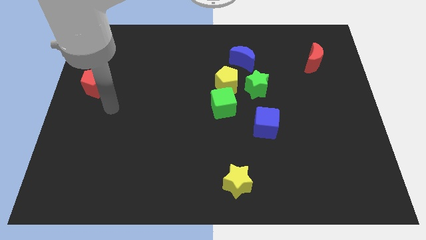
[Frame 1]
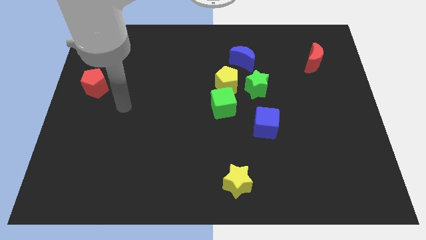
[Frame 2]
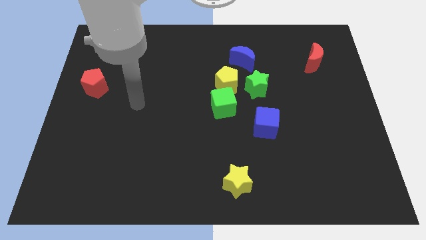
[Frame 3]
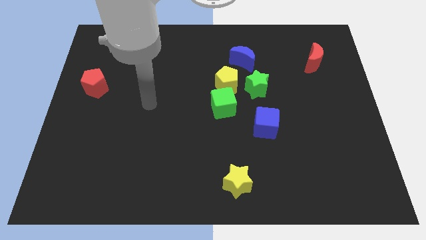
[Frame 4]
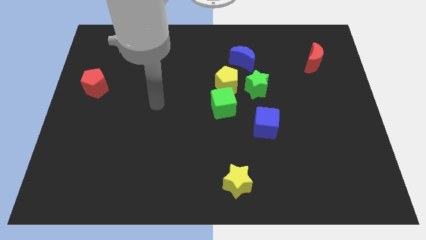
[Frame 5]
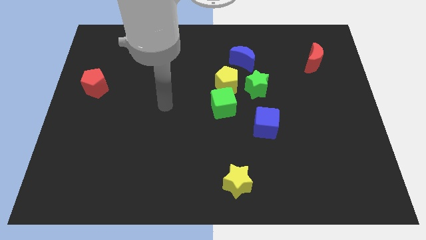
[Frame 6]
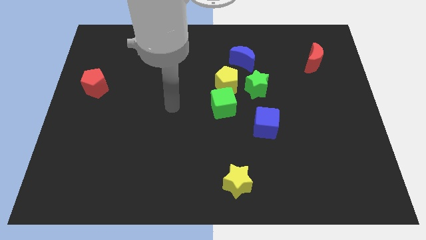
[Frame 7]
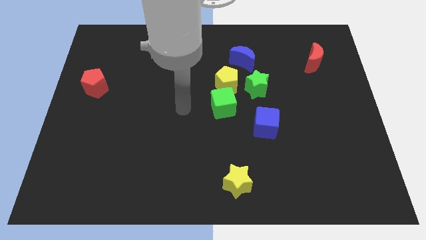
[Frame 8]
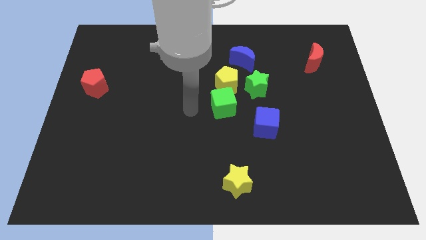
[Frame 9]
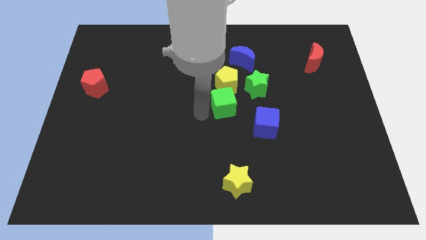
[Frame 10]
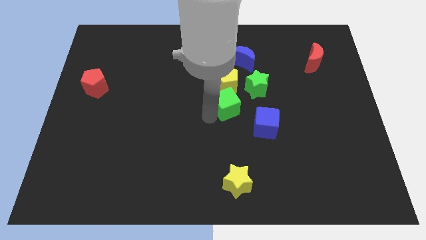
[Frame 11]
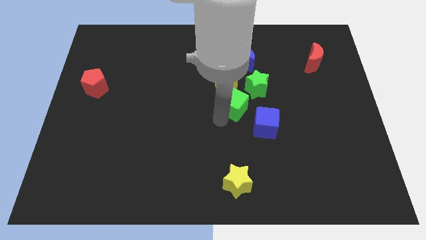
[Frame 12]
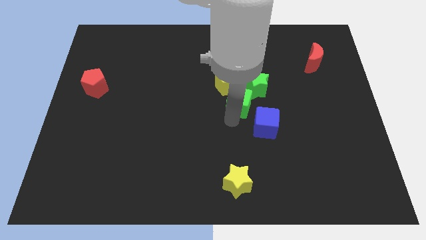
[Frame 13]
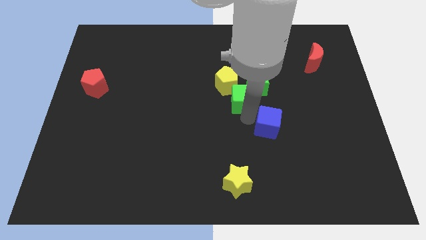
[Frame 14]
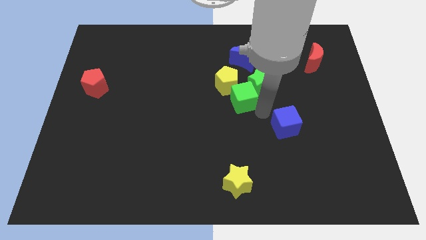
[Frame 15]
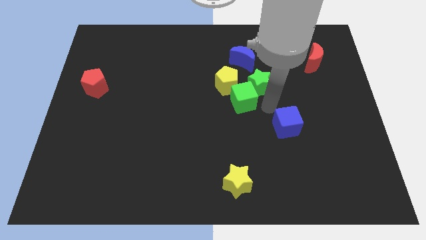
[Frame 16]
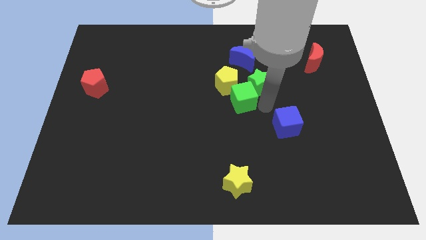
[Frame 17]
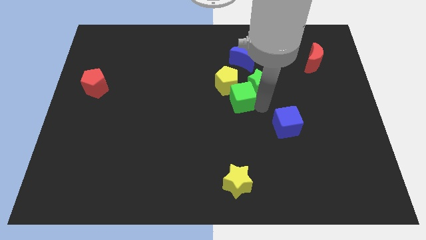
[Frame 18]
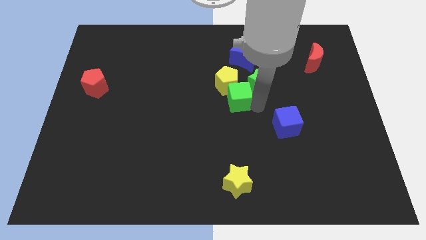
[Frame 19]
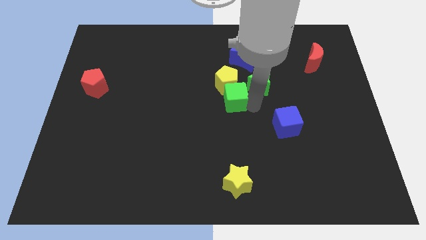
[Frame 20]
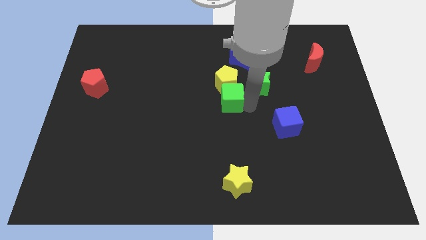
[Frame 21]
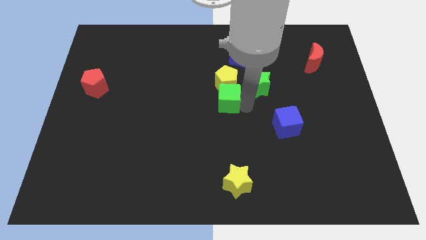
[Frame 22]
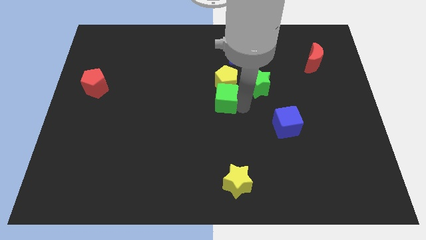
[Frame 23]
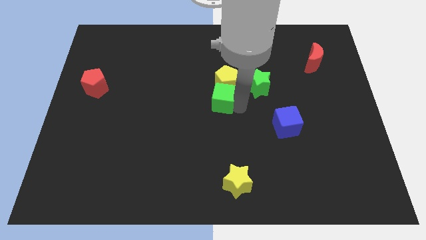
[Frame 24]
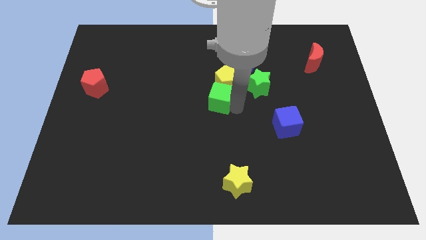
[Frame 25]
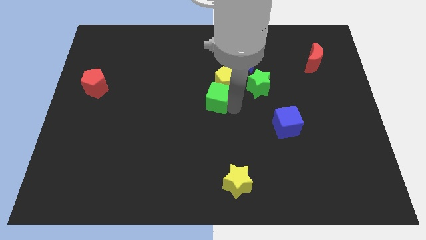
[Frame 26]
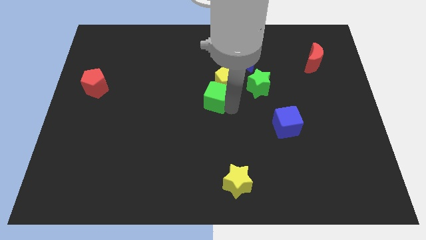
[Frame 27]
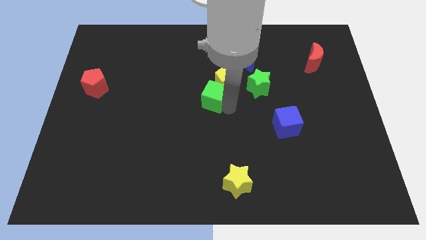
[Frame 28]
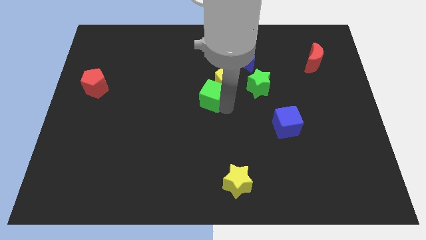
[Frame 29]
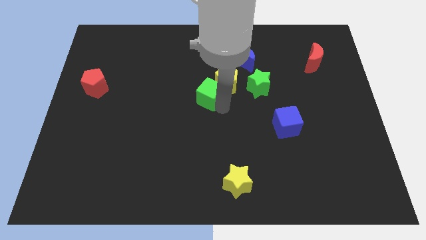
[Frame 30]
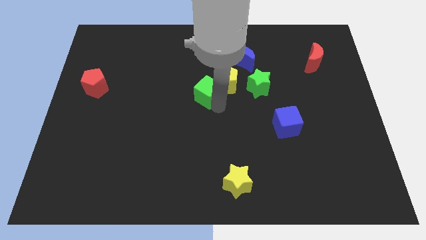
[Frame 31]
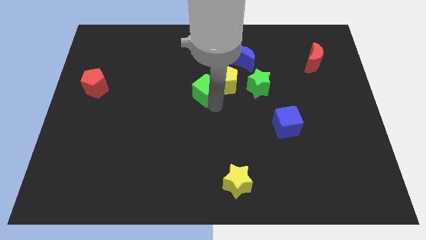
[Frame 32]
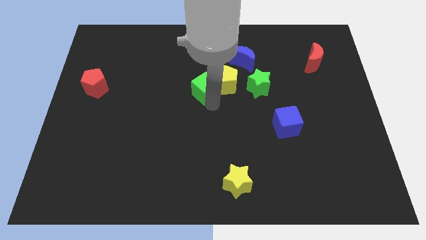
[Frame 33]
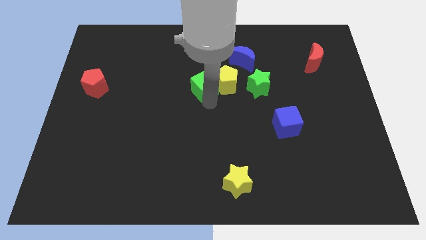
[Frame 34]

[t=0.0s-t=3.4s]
push the green cube a little upwards and to the left diagonally

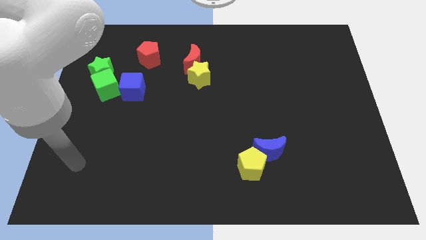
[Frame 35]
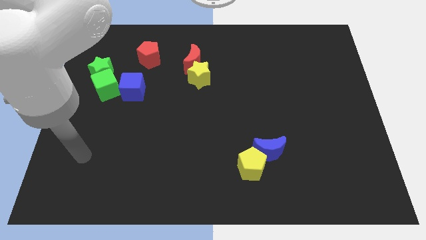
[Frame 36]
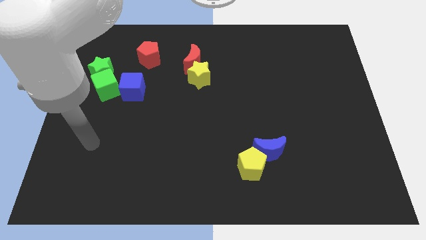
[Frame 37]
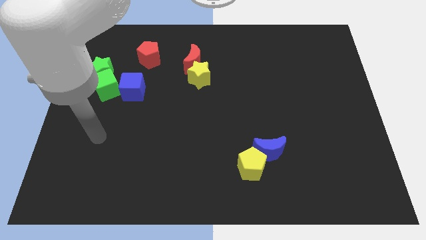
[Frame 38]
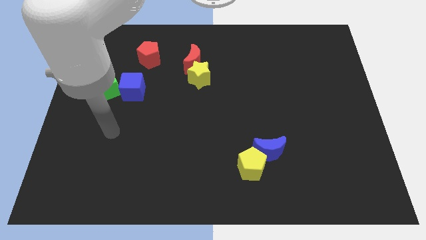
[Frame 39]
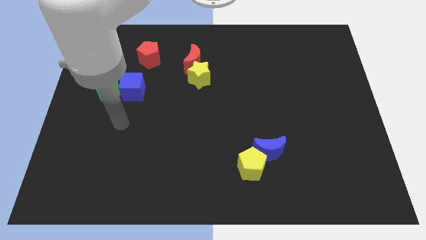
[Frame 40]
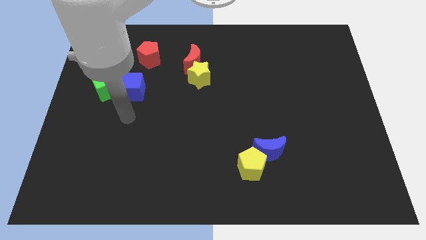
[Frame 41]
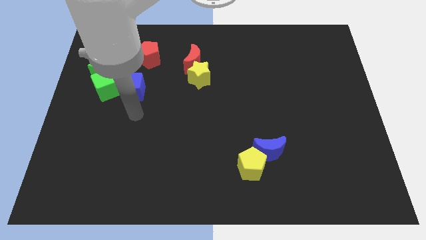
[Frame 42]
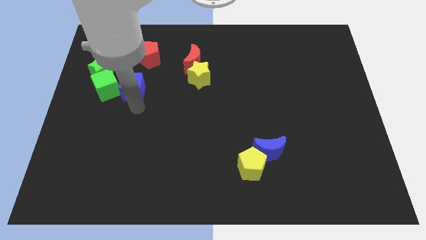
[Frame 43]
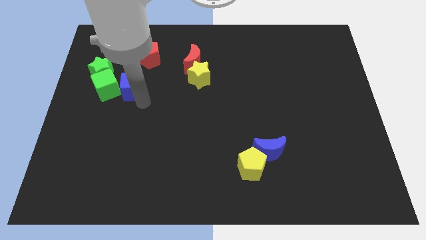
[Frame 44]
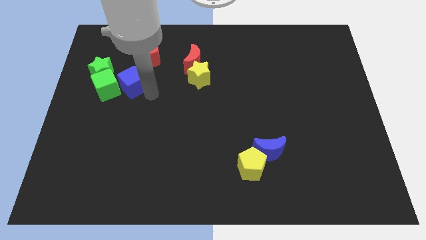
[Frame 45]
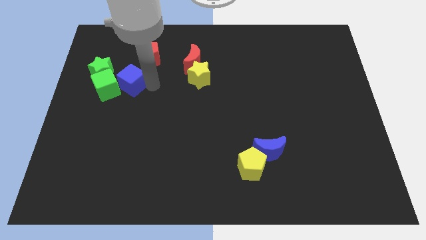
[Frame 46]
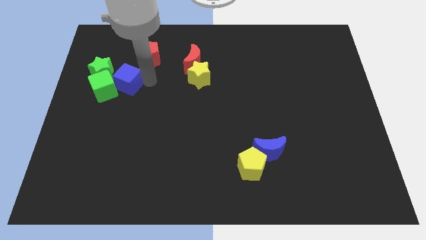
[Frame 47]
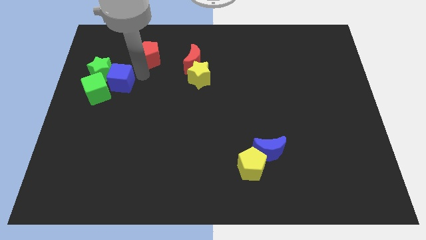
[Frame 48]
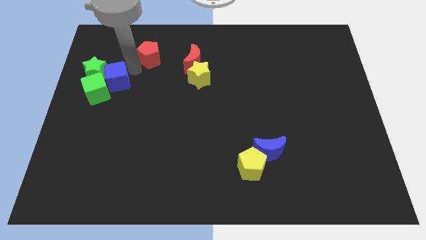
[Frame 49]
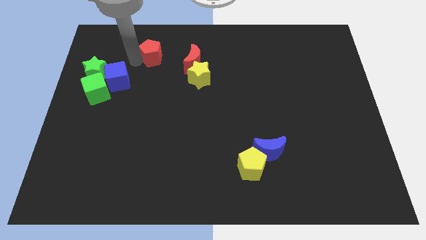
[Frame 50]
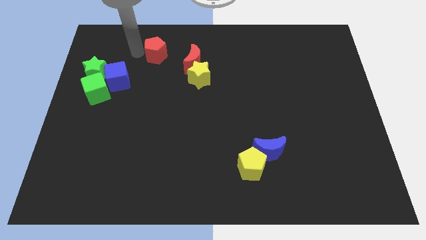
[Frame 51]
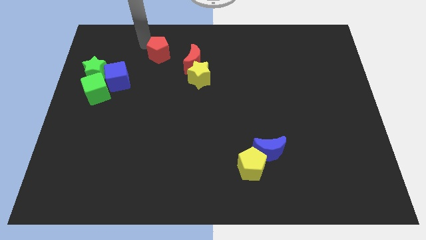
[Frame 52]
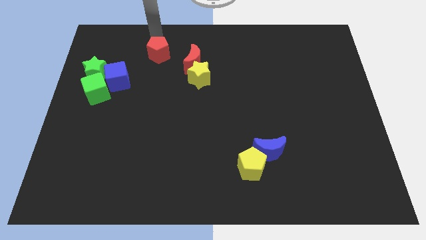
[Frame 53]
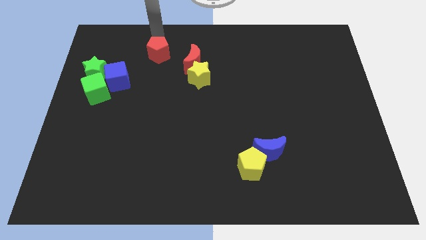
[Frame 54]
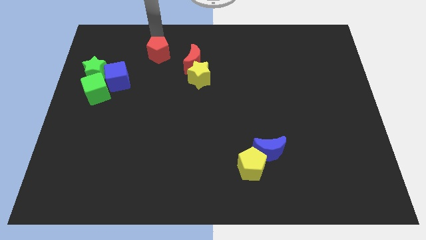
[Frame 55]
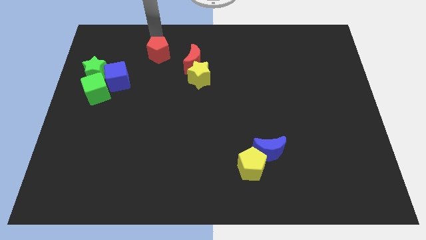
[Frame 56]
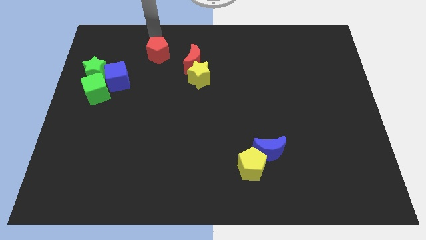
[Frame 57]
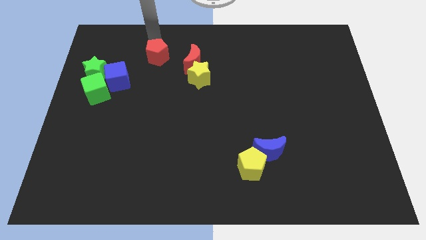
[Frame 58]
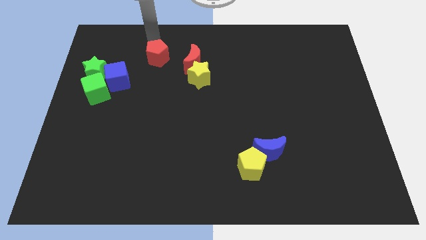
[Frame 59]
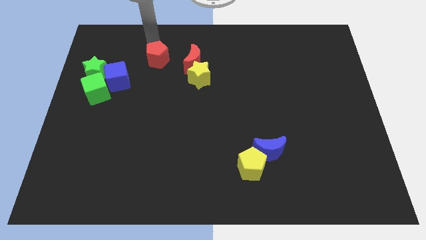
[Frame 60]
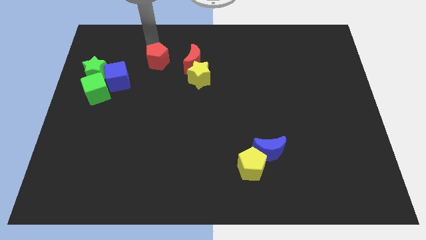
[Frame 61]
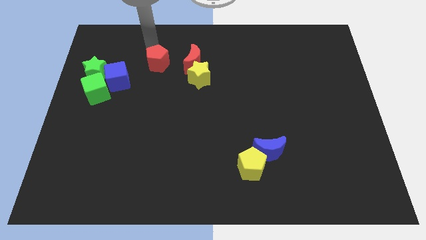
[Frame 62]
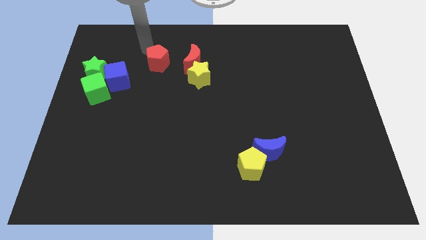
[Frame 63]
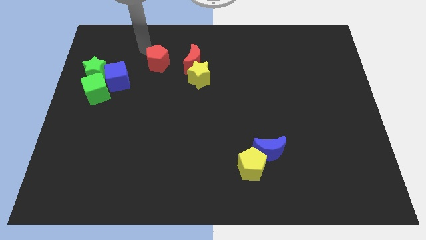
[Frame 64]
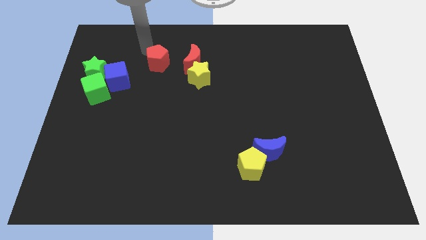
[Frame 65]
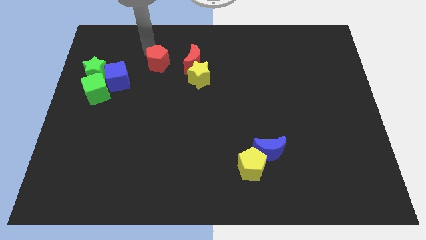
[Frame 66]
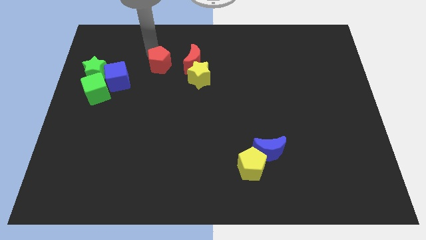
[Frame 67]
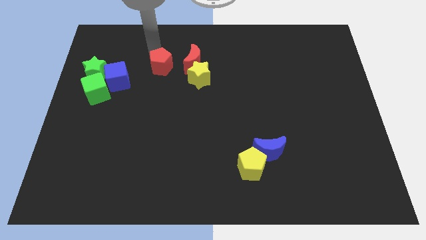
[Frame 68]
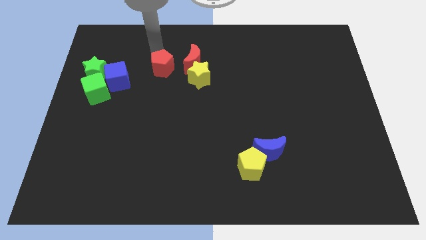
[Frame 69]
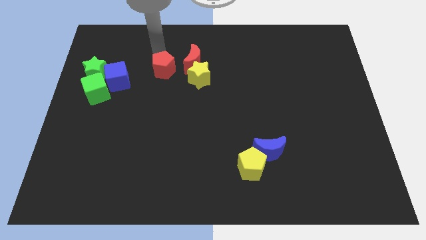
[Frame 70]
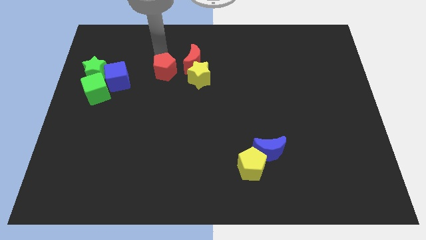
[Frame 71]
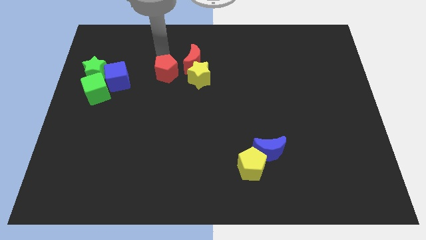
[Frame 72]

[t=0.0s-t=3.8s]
slide the red pentagon a bit diagonally down and right

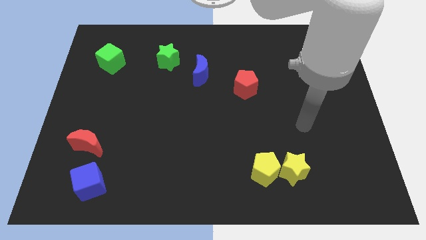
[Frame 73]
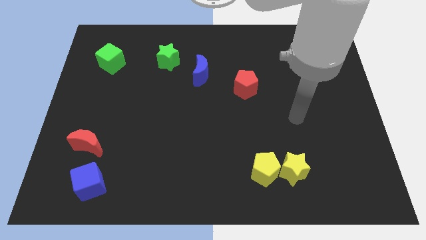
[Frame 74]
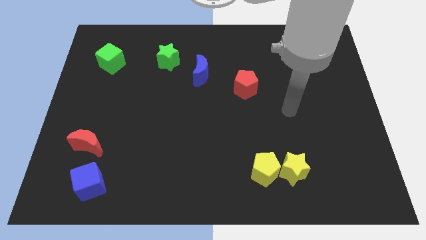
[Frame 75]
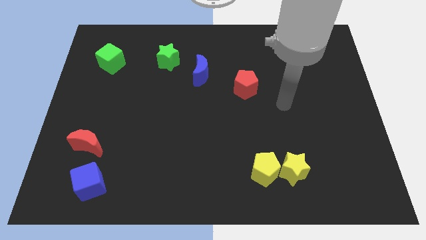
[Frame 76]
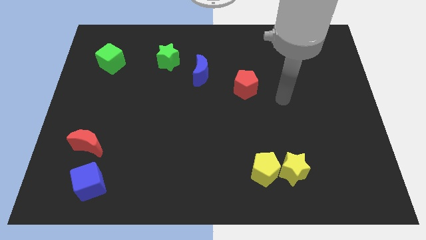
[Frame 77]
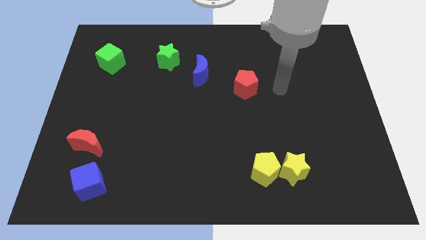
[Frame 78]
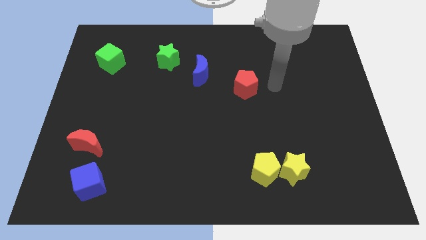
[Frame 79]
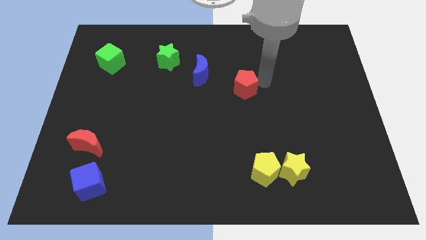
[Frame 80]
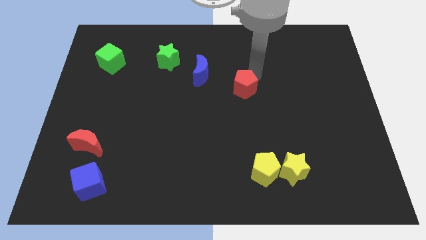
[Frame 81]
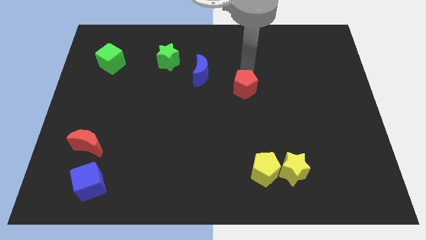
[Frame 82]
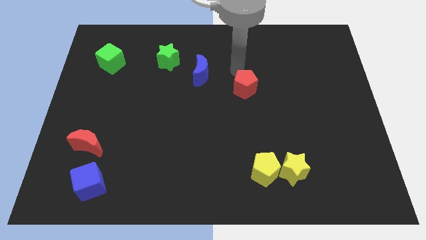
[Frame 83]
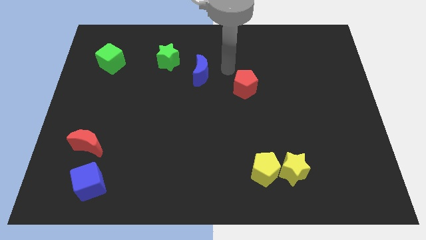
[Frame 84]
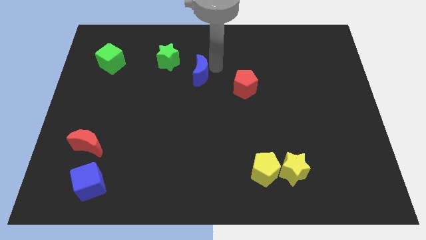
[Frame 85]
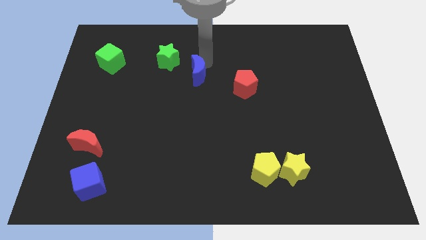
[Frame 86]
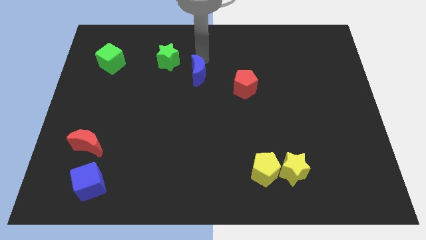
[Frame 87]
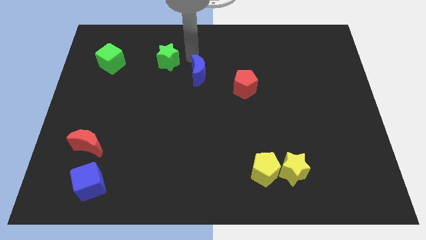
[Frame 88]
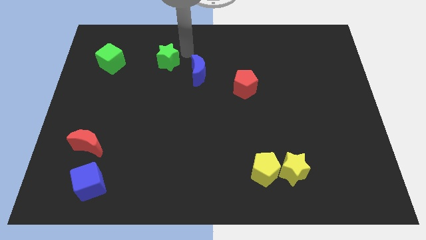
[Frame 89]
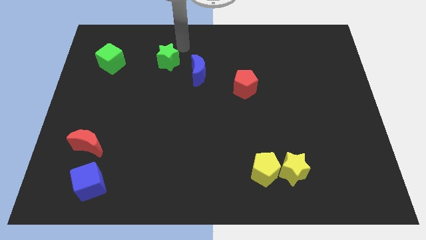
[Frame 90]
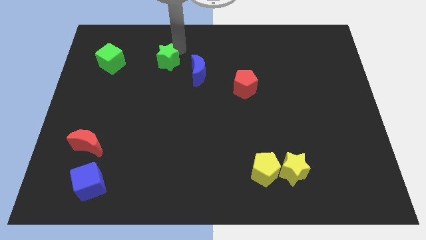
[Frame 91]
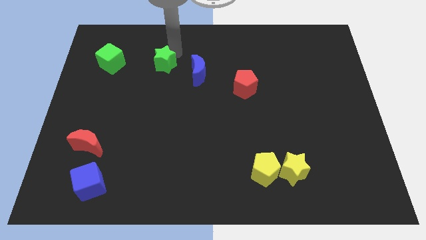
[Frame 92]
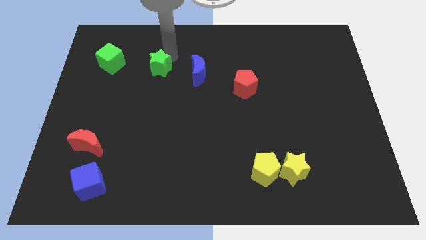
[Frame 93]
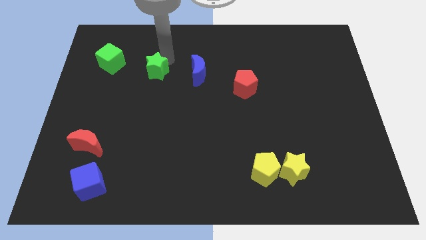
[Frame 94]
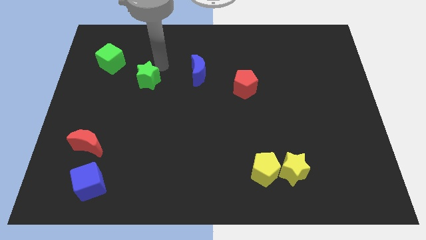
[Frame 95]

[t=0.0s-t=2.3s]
slide the green star a little bit diagonally downwards and to the left
